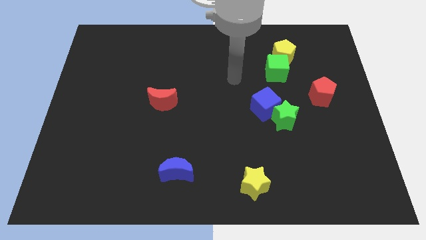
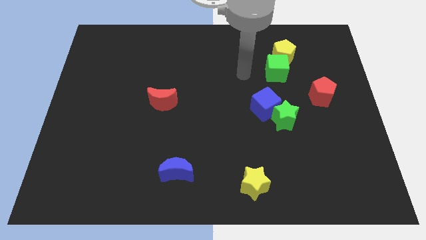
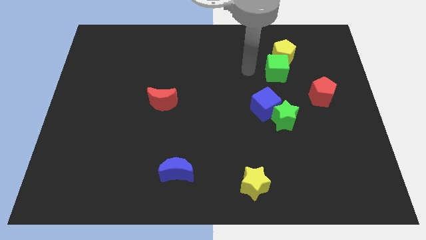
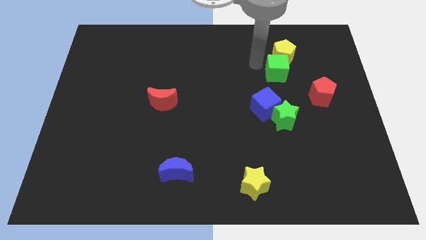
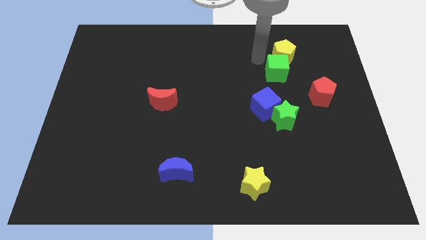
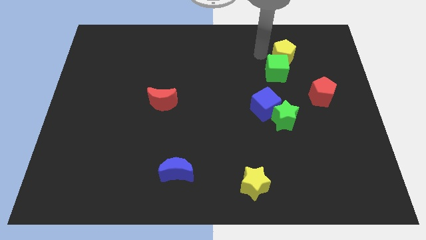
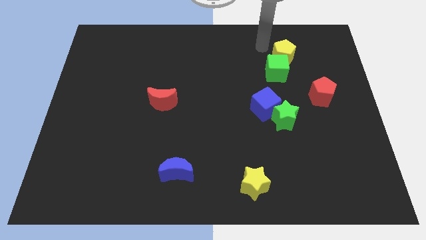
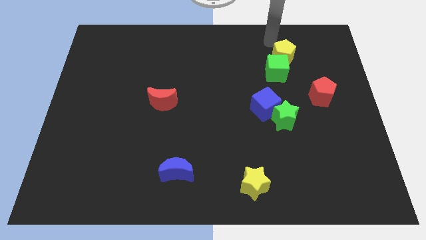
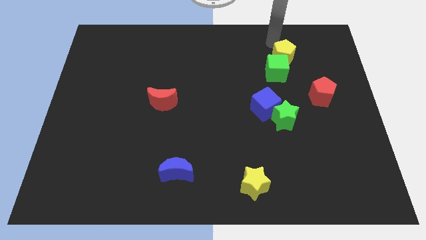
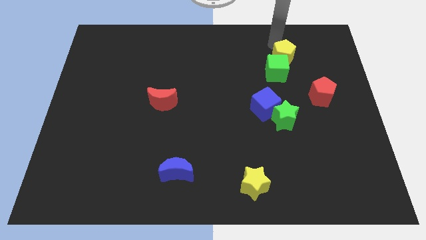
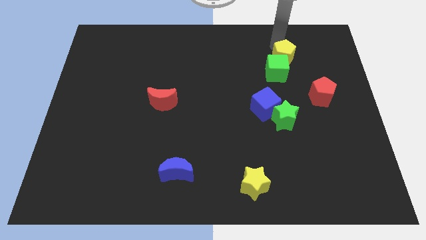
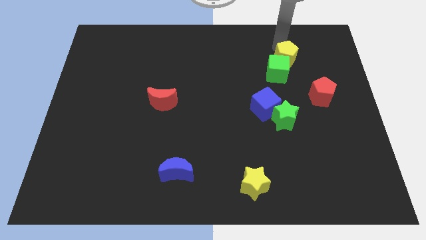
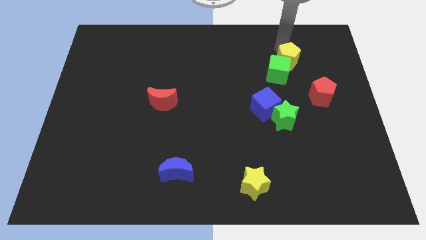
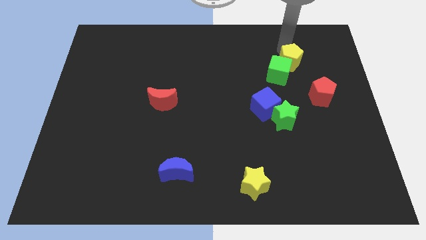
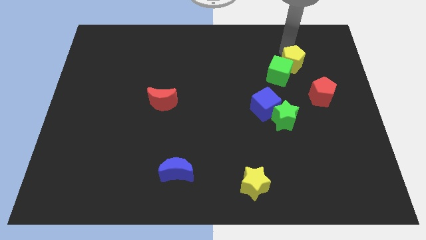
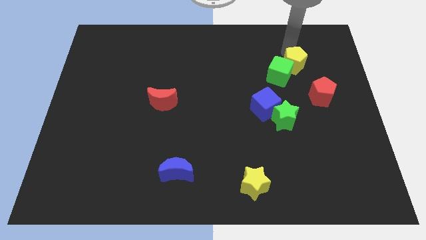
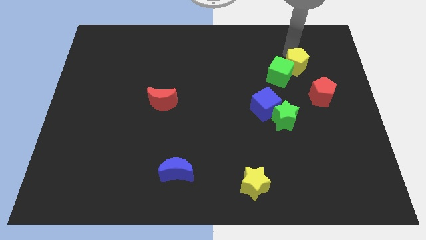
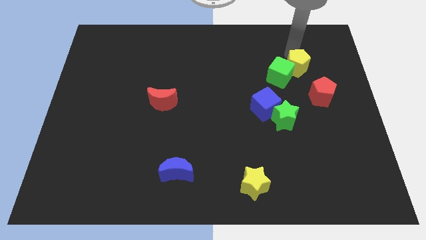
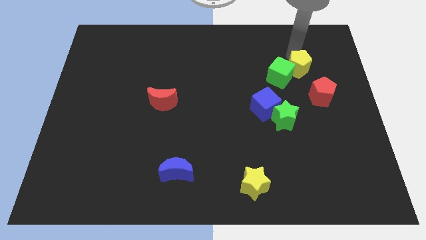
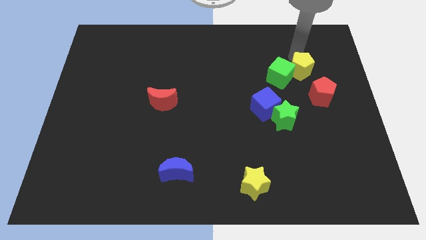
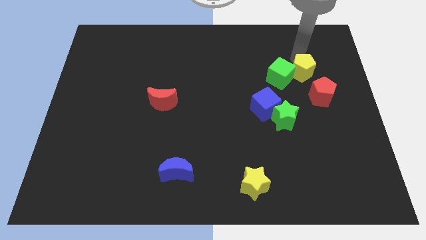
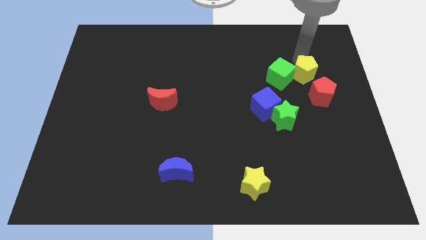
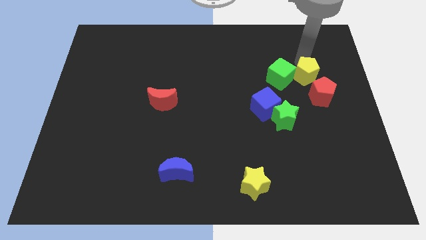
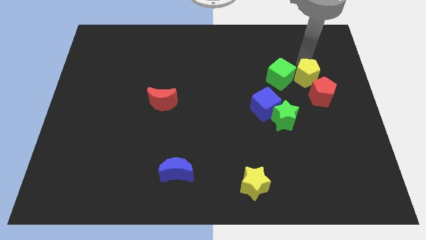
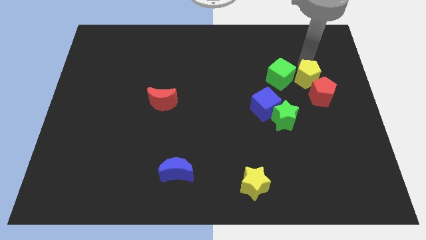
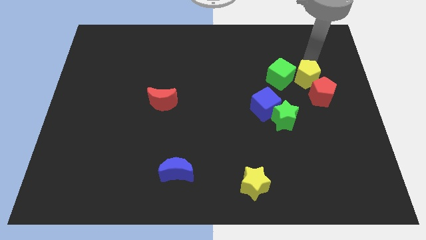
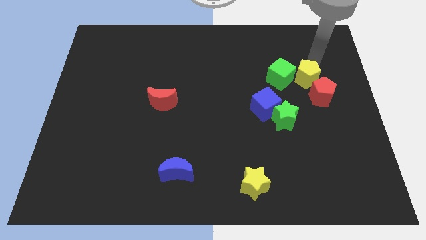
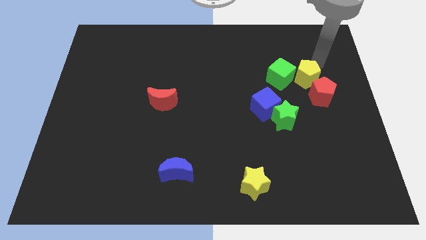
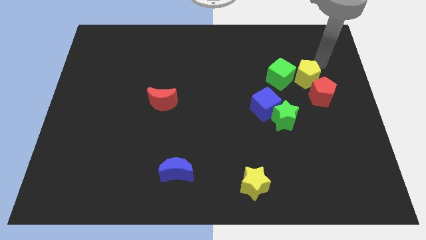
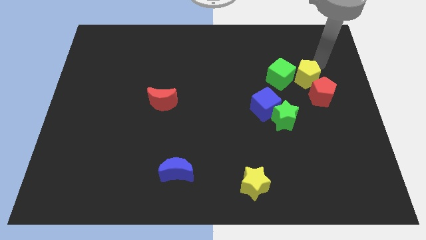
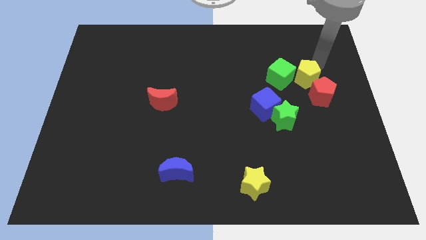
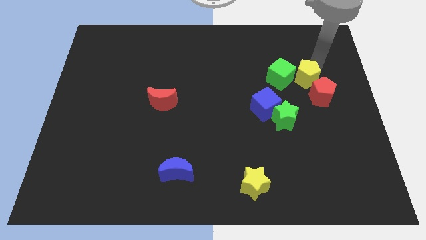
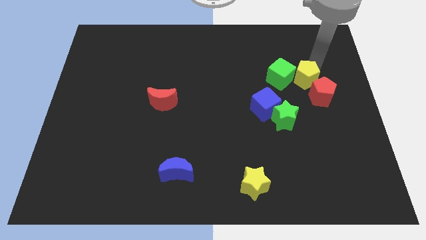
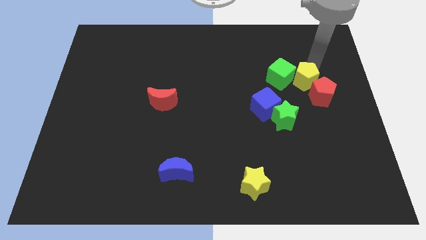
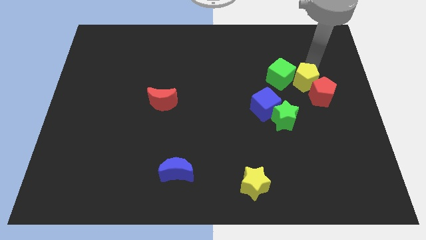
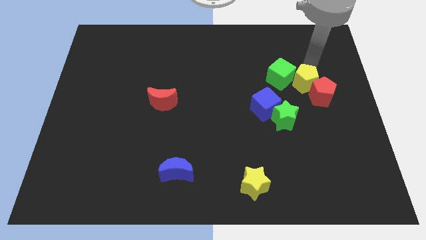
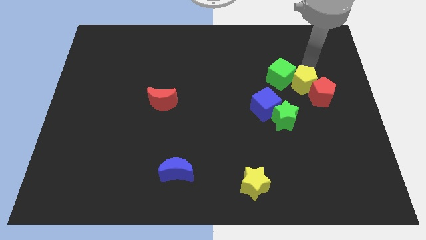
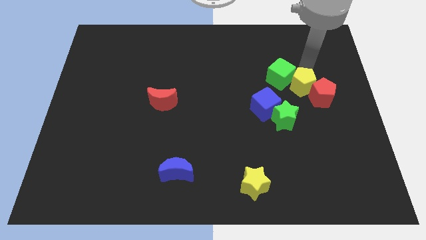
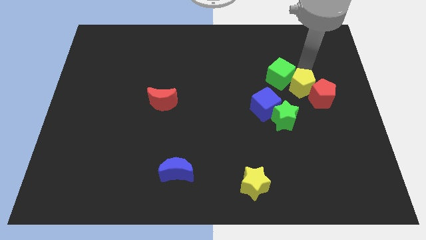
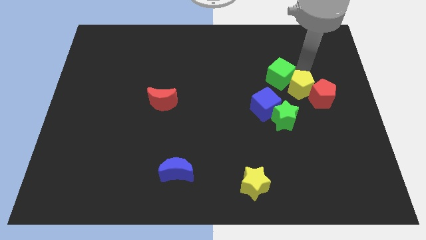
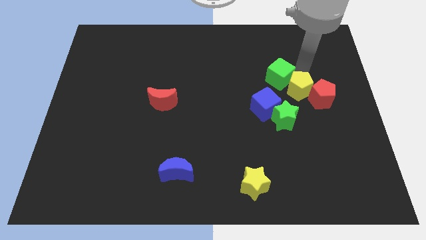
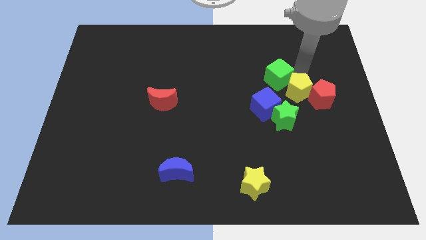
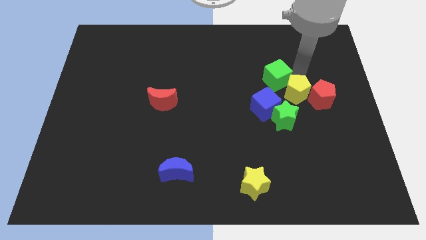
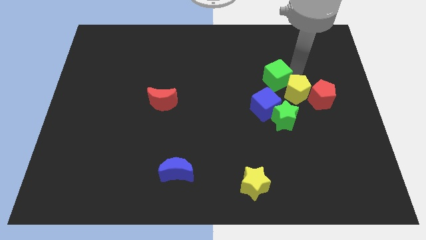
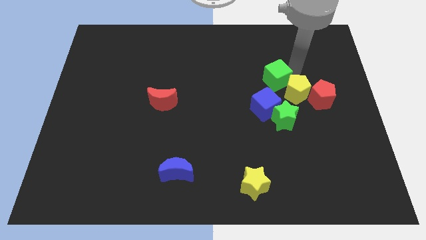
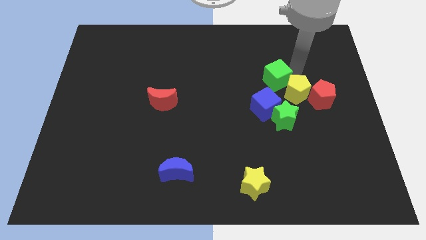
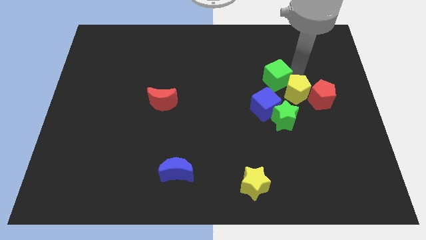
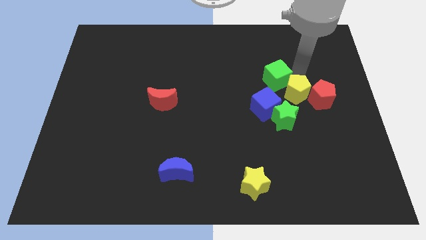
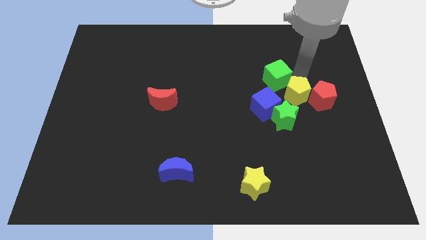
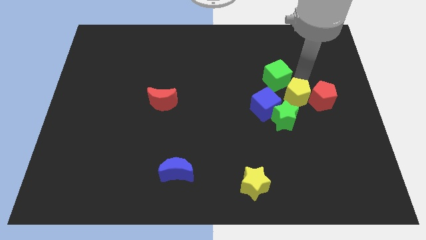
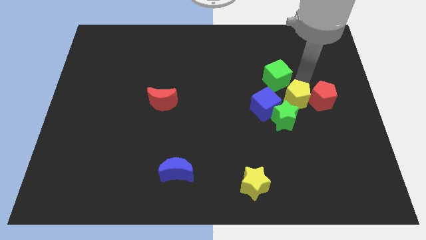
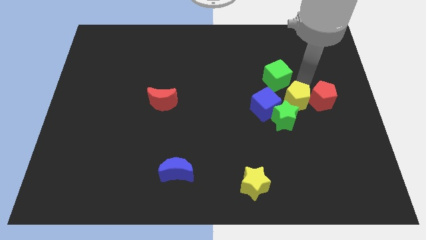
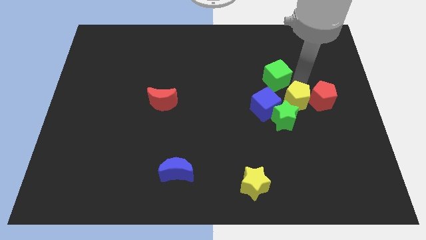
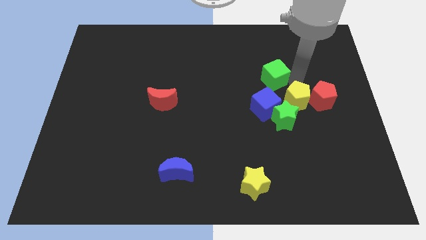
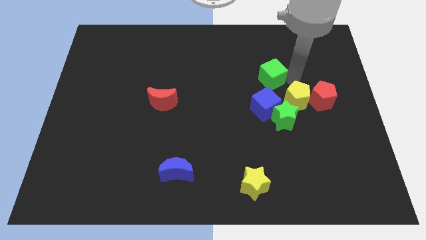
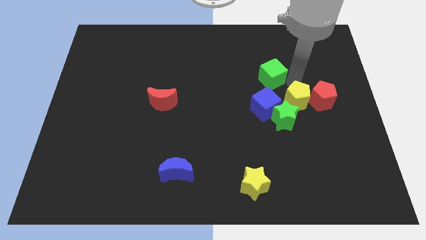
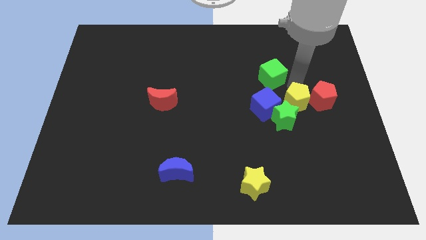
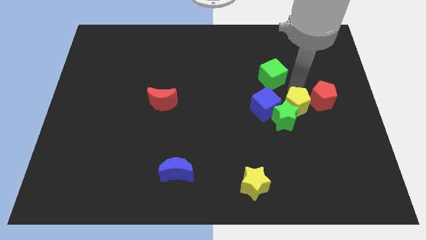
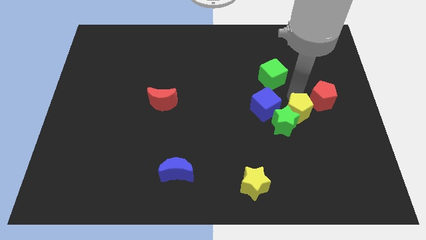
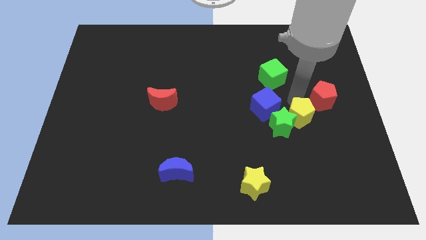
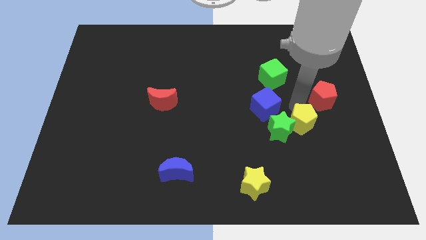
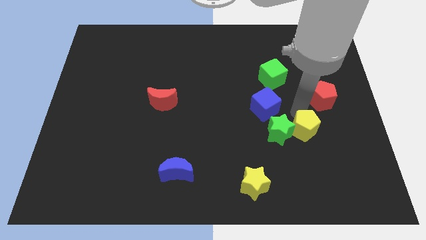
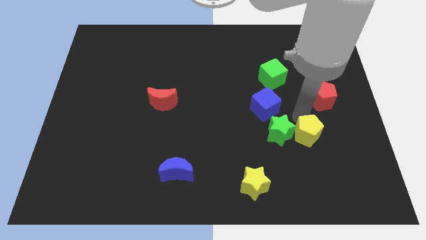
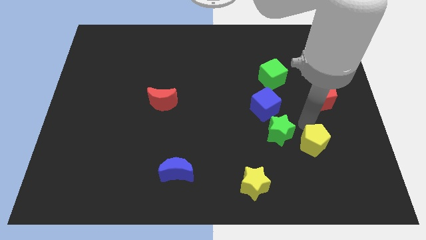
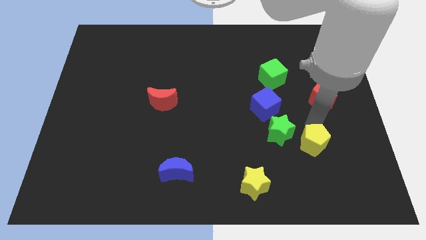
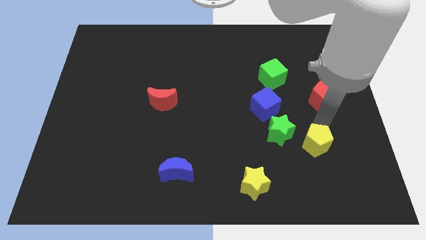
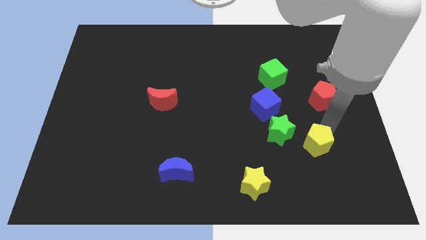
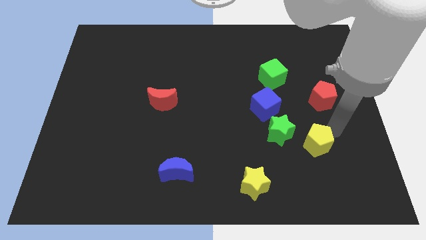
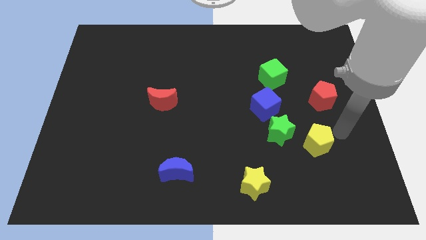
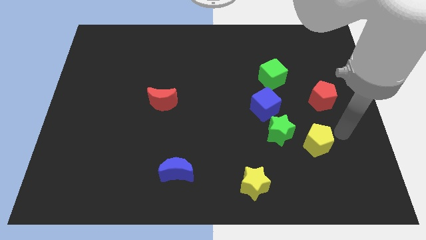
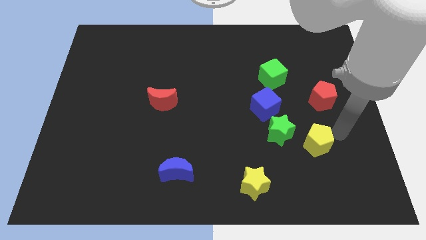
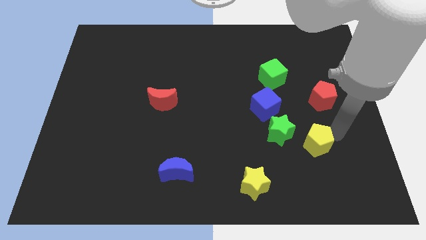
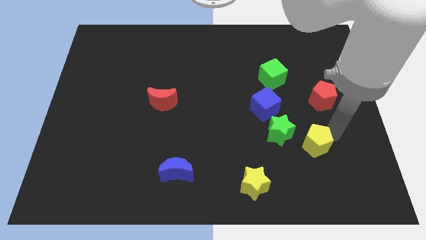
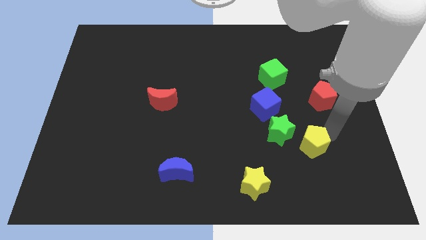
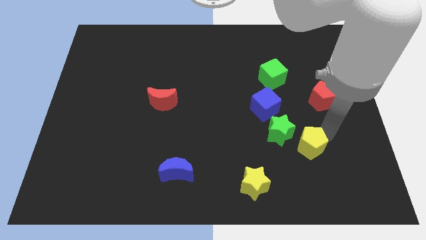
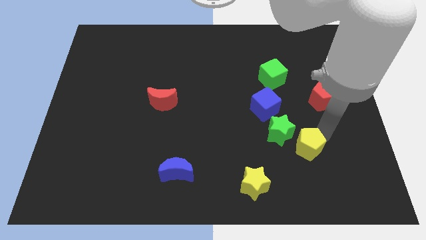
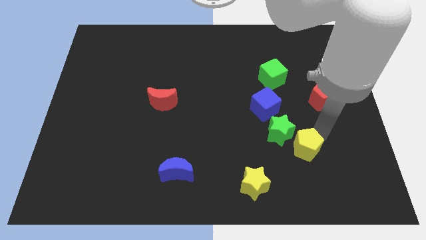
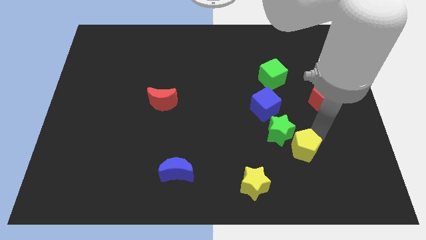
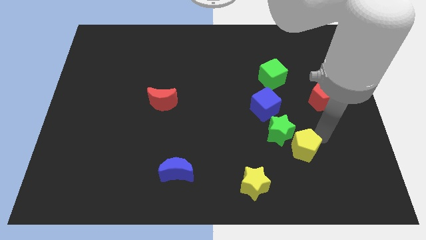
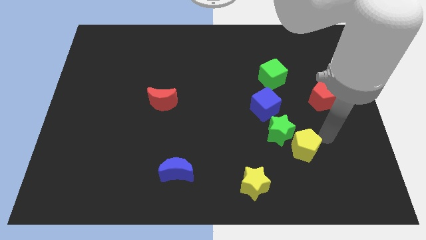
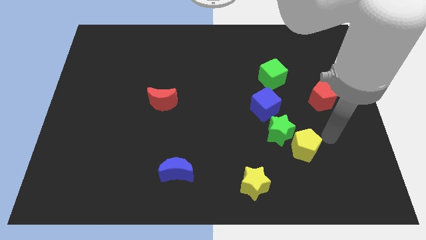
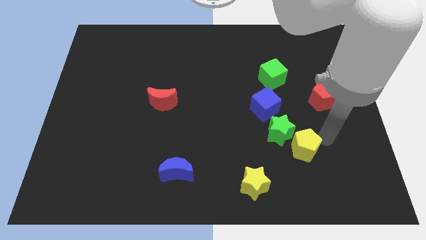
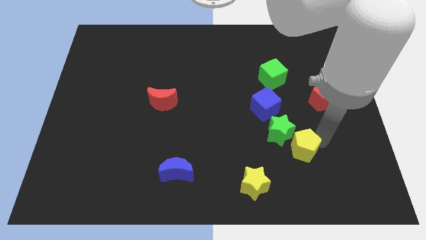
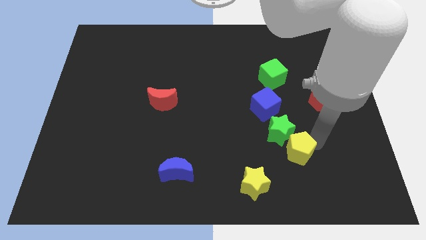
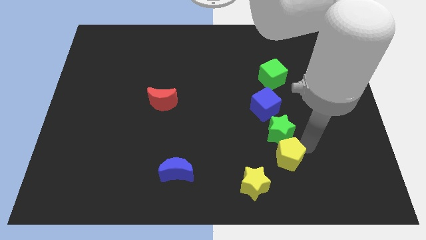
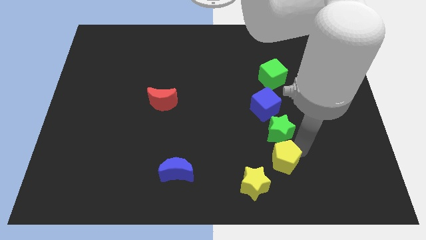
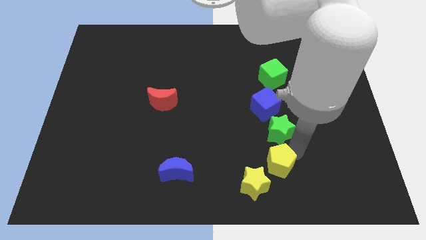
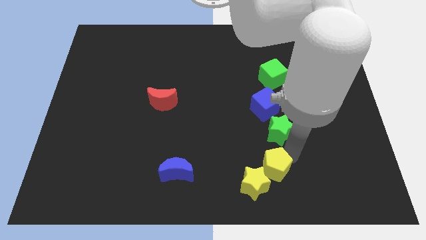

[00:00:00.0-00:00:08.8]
put the yellow pentagon close to the yellow star
